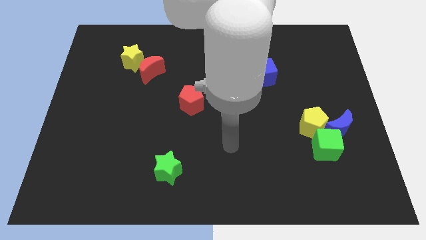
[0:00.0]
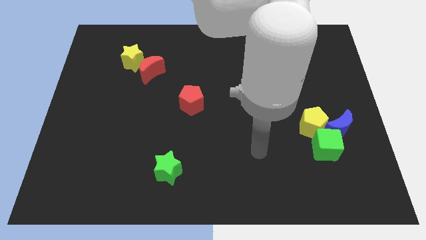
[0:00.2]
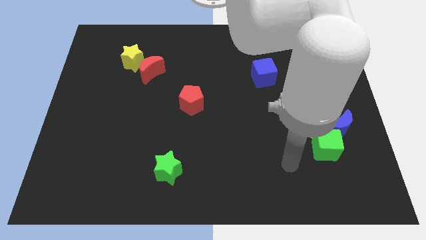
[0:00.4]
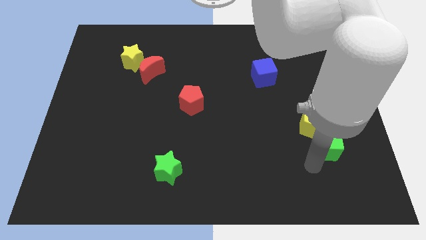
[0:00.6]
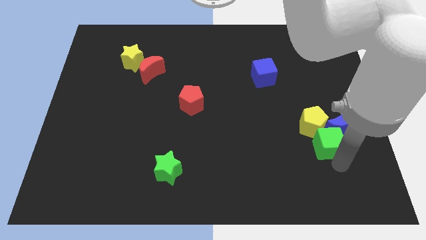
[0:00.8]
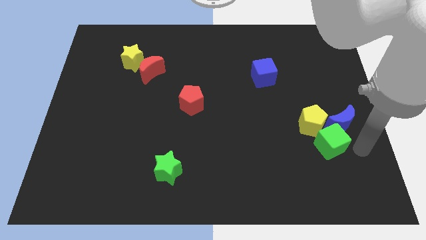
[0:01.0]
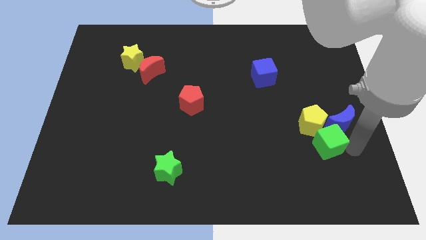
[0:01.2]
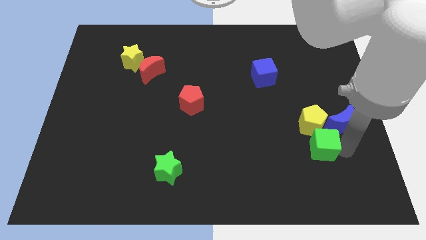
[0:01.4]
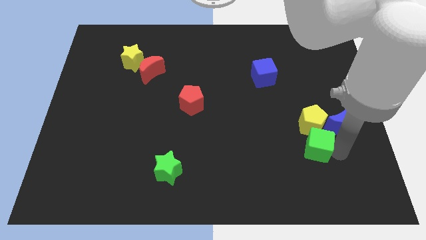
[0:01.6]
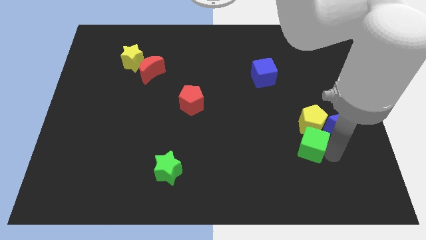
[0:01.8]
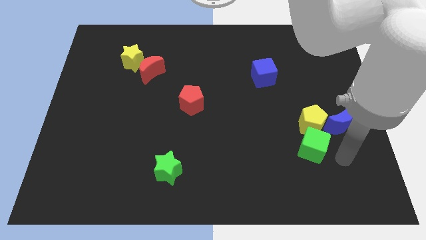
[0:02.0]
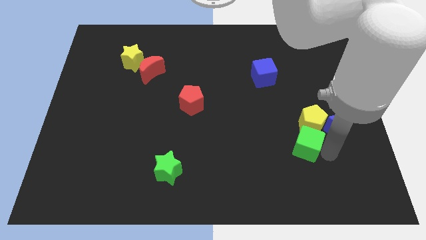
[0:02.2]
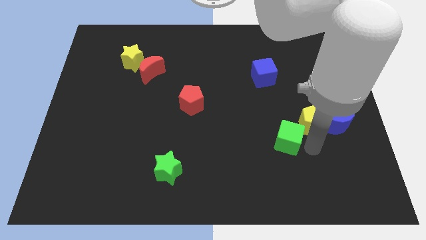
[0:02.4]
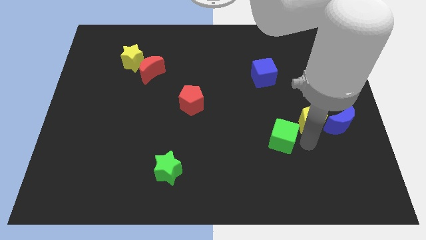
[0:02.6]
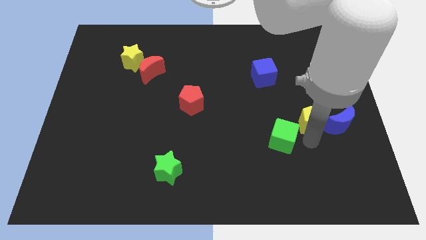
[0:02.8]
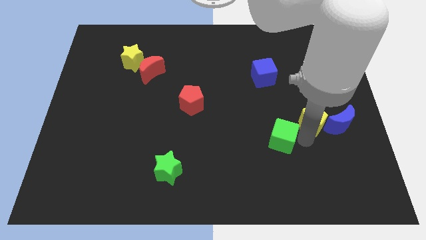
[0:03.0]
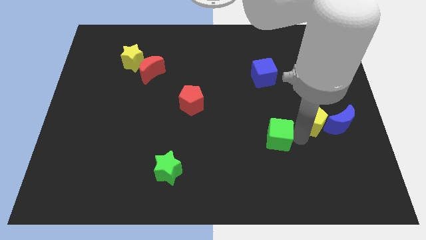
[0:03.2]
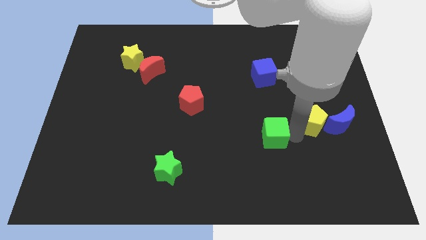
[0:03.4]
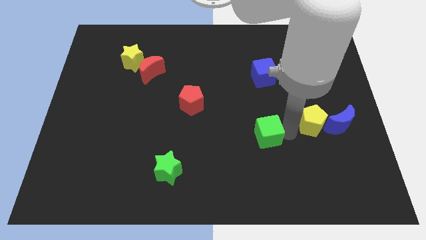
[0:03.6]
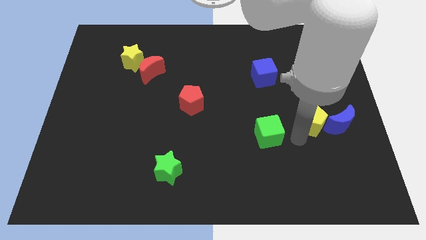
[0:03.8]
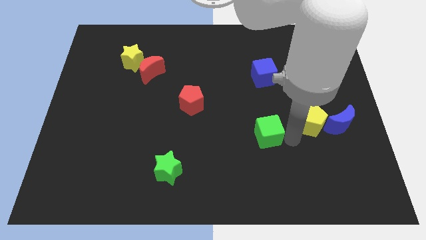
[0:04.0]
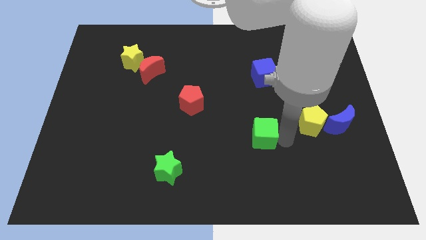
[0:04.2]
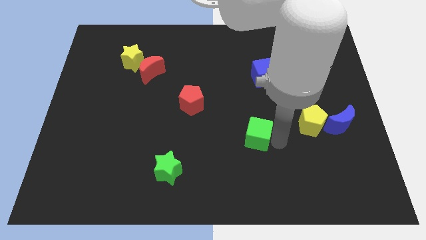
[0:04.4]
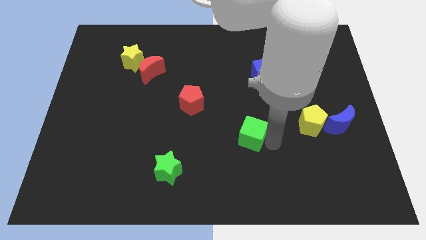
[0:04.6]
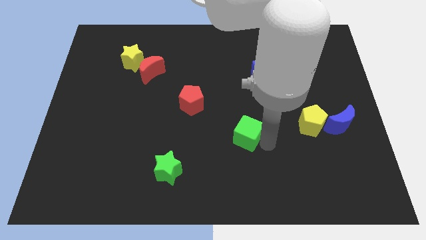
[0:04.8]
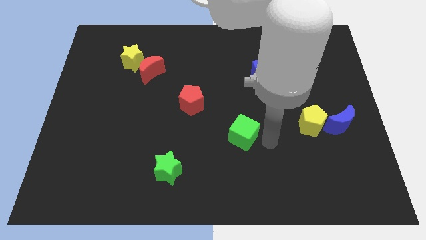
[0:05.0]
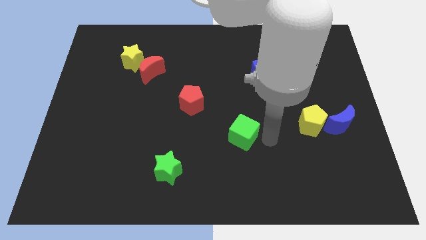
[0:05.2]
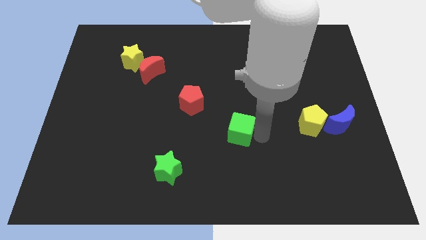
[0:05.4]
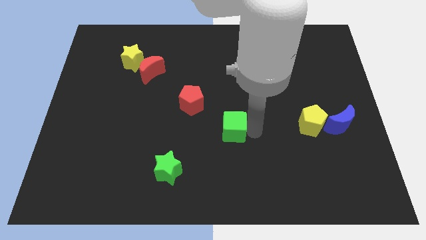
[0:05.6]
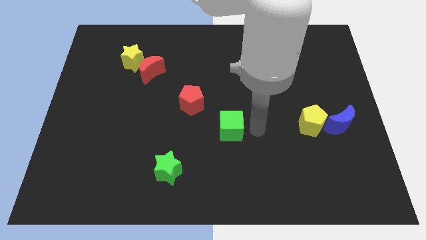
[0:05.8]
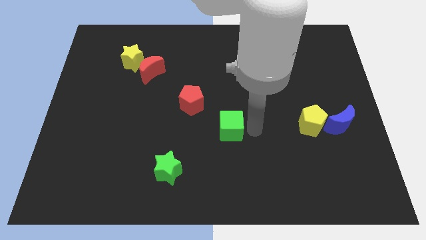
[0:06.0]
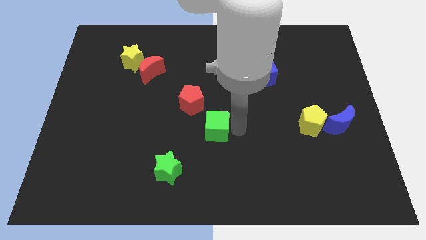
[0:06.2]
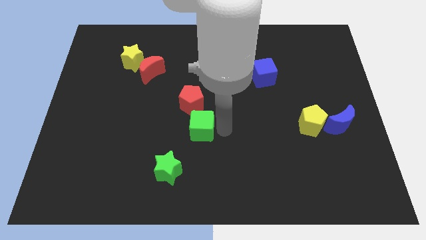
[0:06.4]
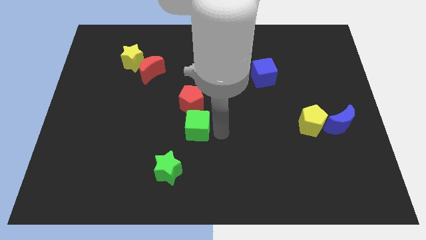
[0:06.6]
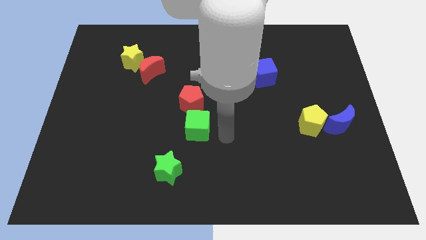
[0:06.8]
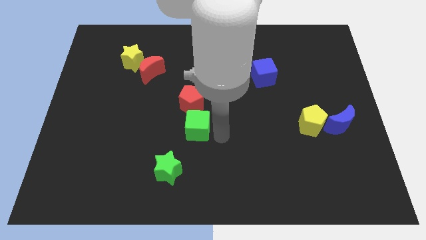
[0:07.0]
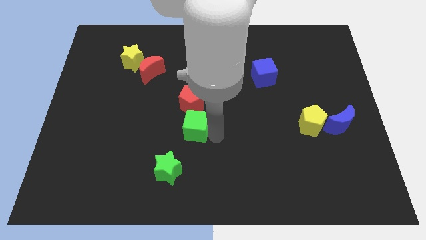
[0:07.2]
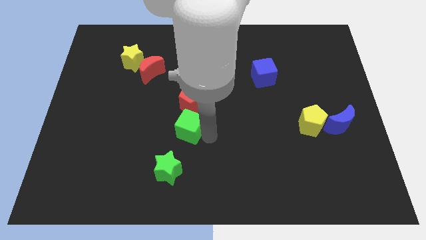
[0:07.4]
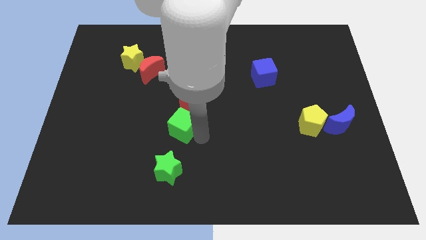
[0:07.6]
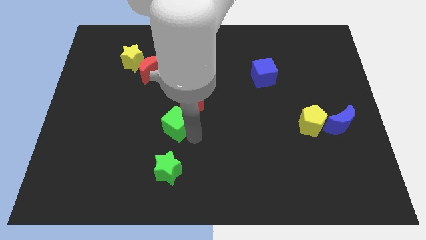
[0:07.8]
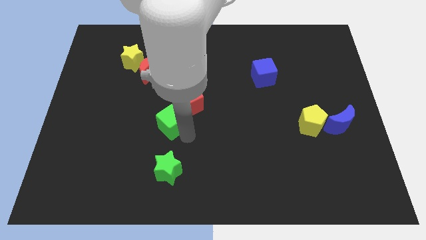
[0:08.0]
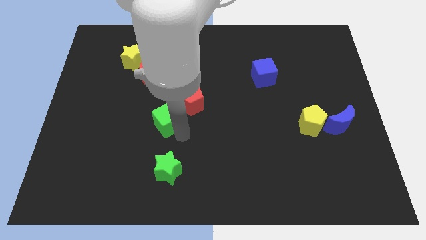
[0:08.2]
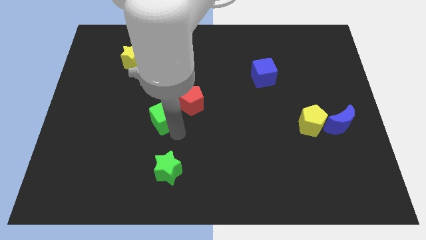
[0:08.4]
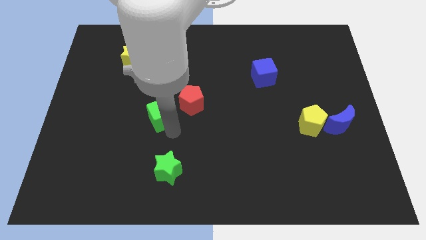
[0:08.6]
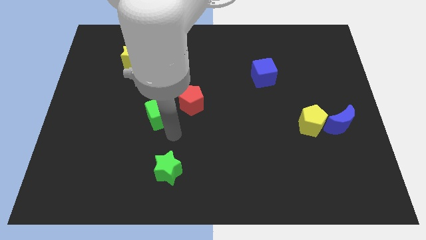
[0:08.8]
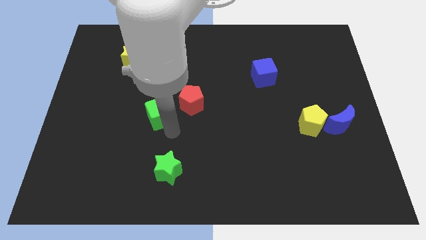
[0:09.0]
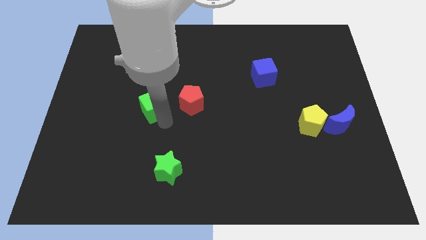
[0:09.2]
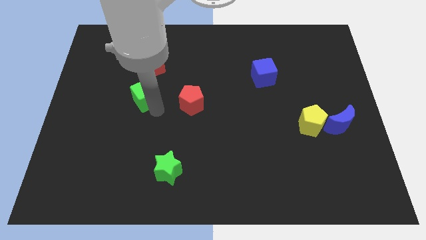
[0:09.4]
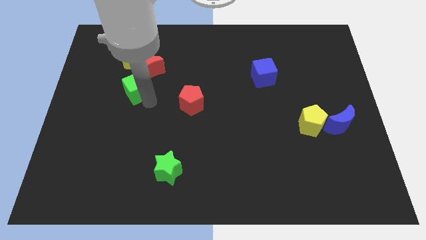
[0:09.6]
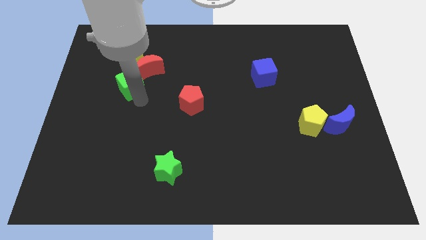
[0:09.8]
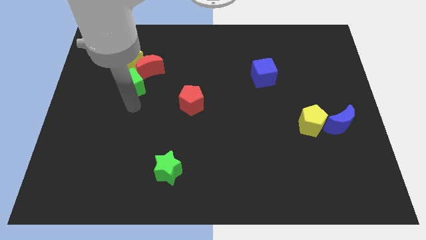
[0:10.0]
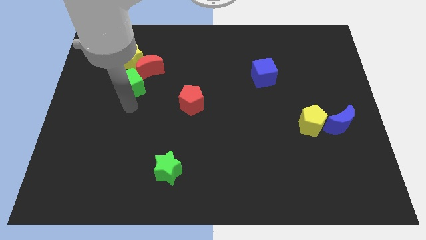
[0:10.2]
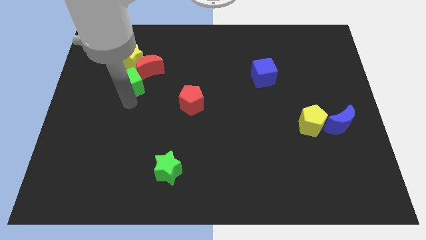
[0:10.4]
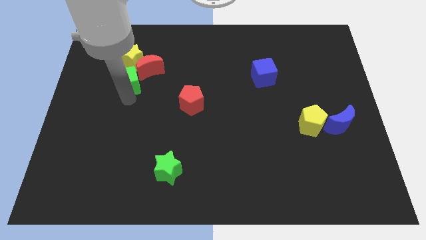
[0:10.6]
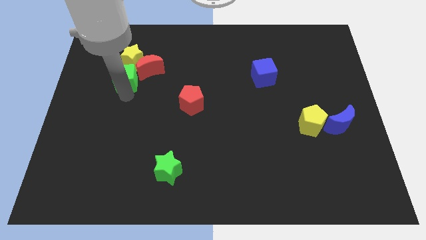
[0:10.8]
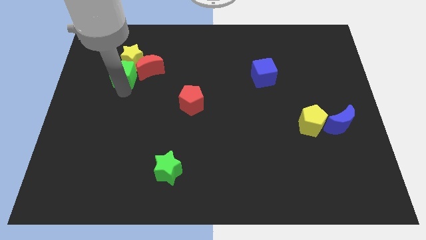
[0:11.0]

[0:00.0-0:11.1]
slide the green cube towards the yellow star

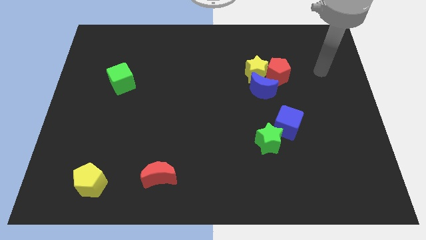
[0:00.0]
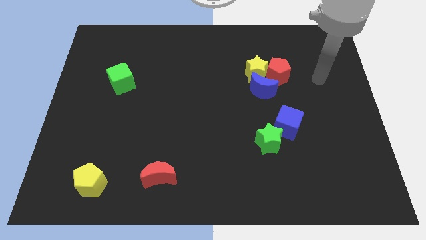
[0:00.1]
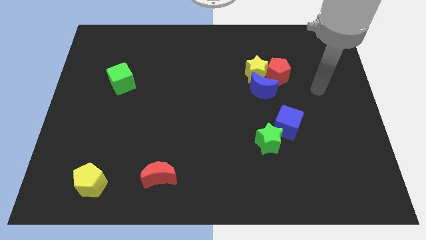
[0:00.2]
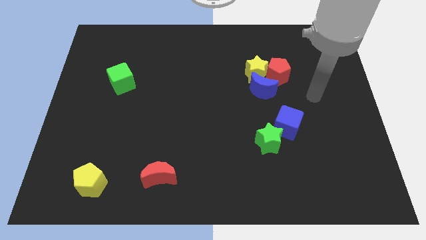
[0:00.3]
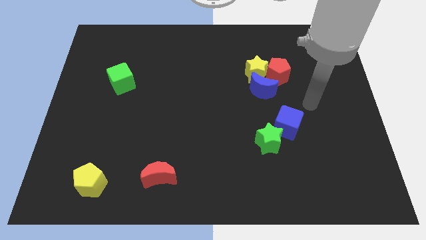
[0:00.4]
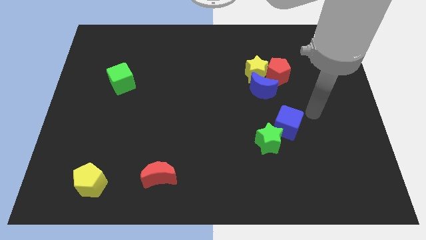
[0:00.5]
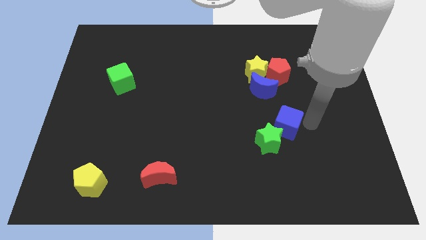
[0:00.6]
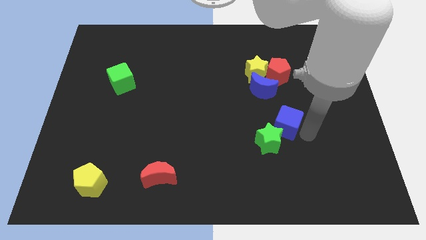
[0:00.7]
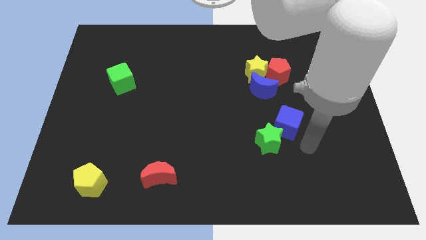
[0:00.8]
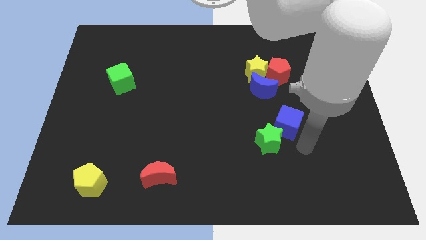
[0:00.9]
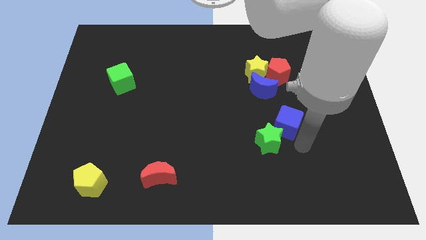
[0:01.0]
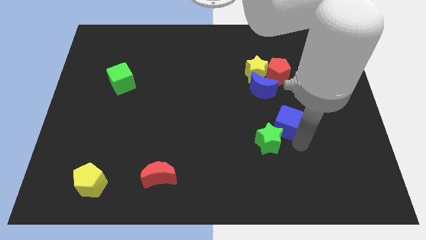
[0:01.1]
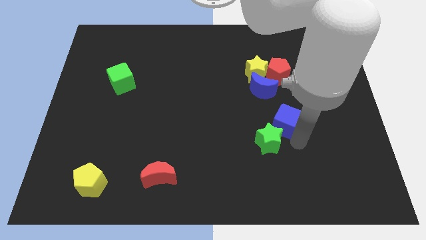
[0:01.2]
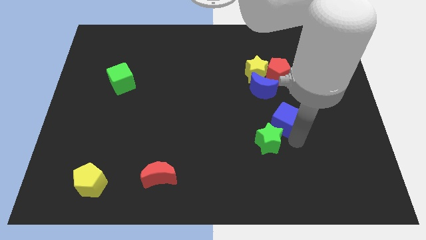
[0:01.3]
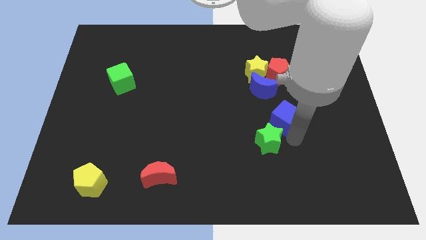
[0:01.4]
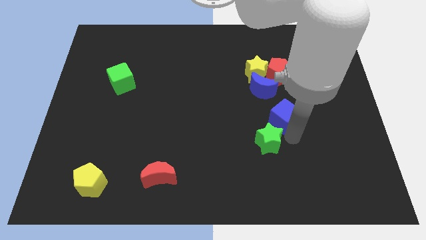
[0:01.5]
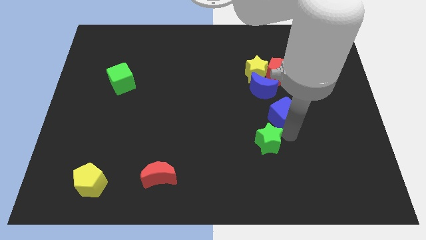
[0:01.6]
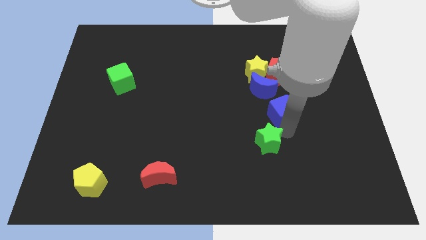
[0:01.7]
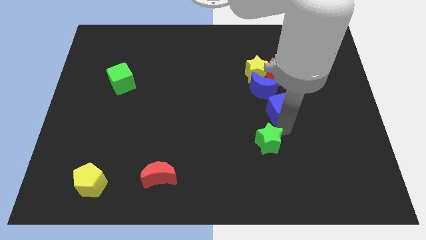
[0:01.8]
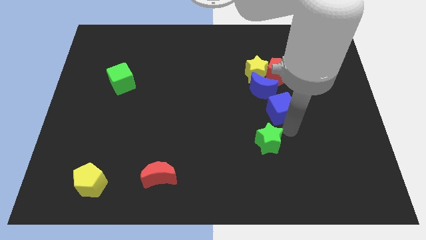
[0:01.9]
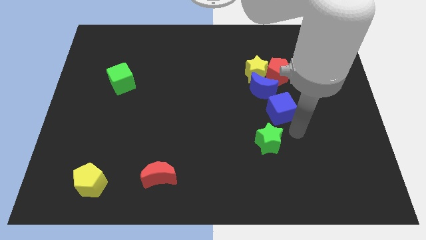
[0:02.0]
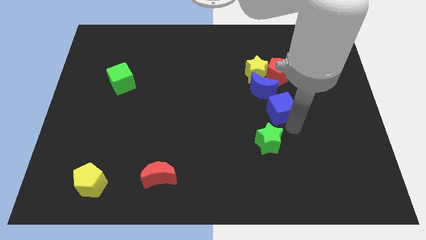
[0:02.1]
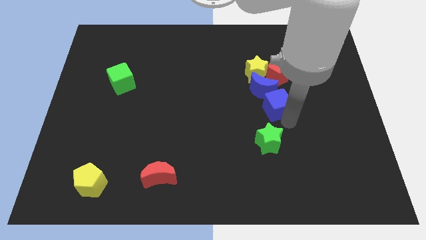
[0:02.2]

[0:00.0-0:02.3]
push the blue cube to the blue moon

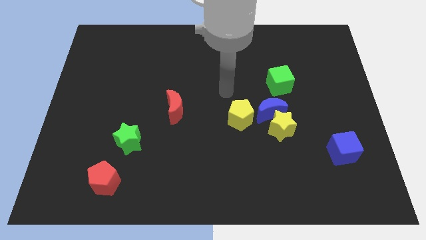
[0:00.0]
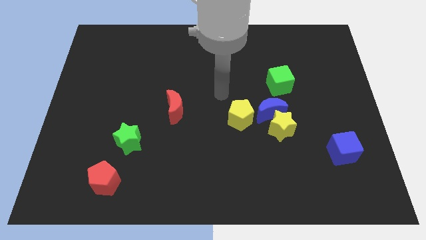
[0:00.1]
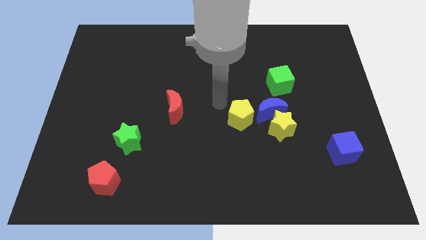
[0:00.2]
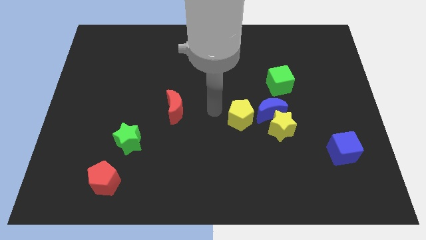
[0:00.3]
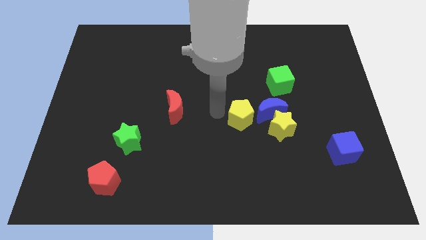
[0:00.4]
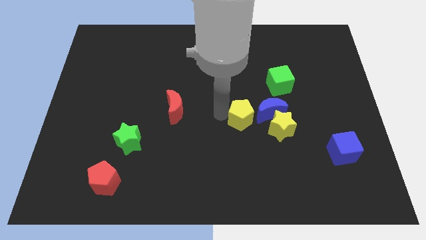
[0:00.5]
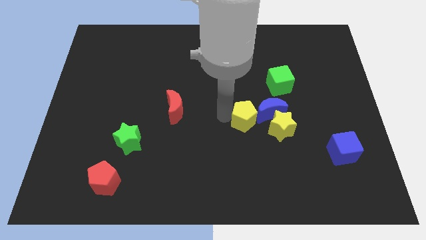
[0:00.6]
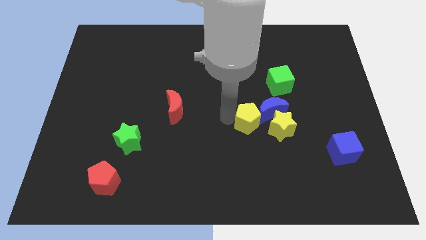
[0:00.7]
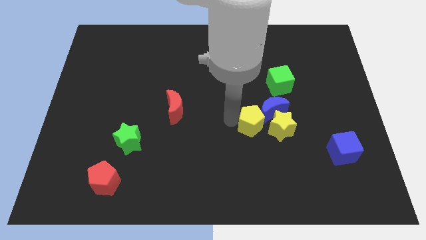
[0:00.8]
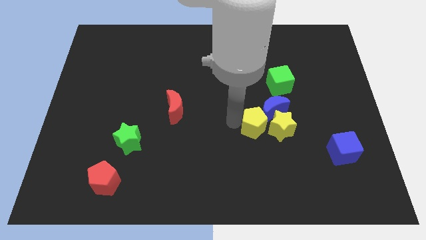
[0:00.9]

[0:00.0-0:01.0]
push the yellow pentagon next to the yellow star
